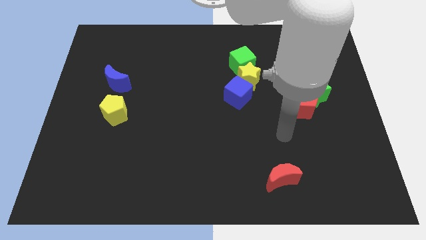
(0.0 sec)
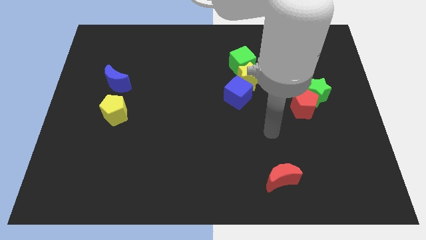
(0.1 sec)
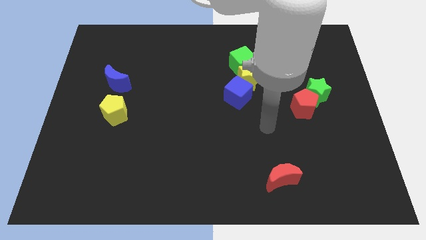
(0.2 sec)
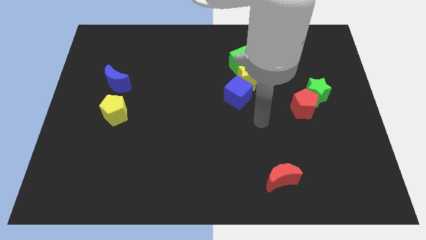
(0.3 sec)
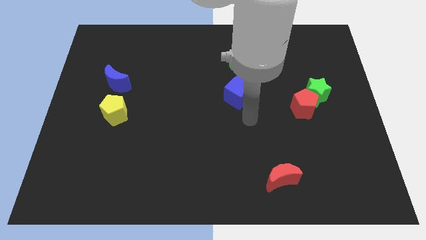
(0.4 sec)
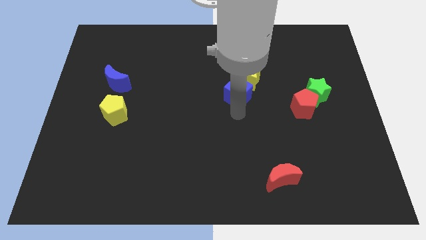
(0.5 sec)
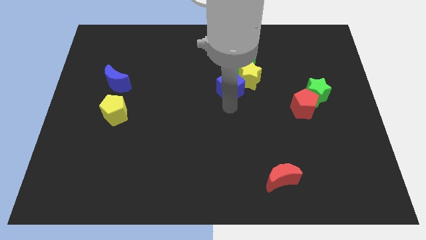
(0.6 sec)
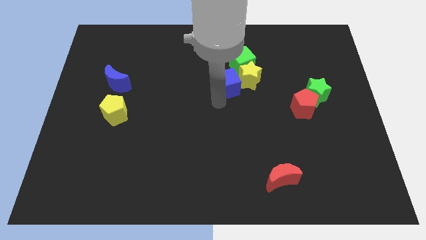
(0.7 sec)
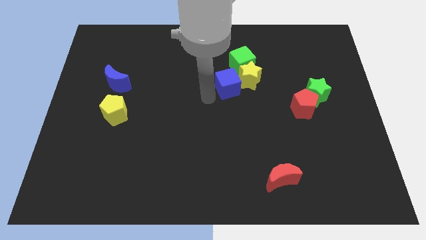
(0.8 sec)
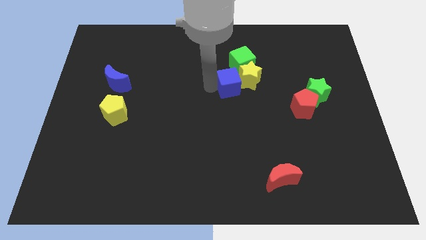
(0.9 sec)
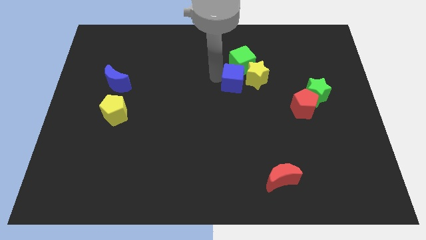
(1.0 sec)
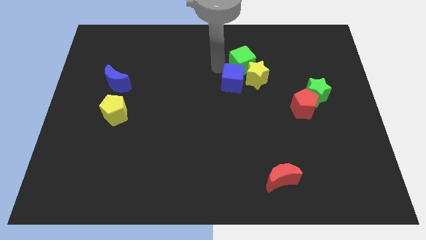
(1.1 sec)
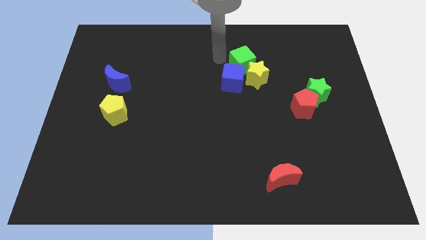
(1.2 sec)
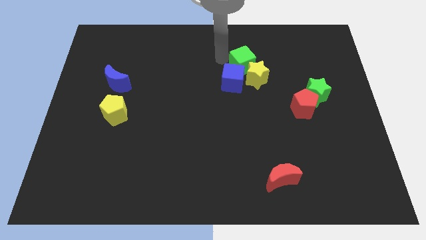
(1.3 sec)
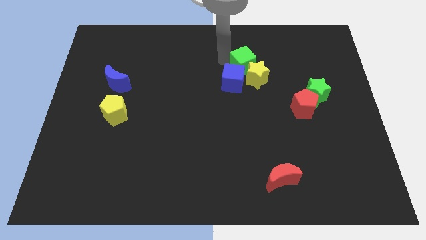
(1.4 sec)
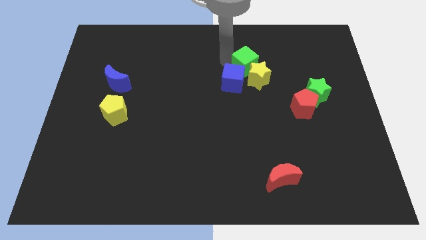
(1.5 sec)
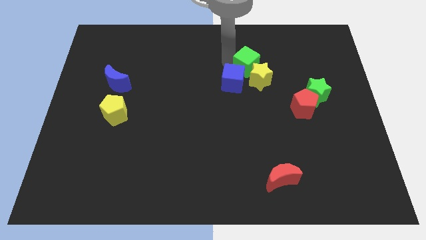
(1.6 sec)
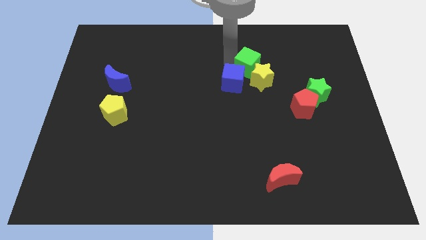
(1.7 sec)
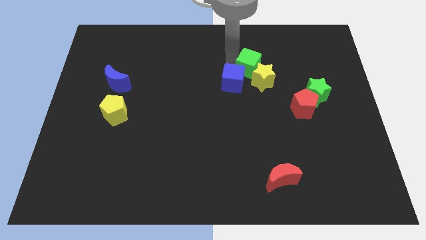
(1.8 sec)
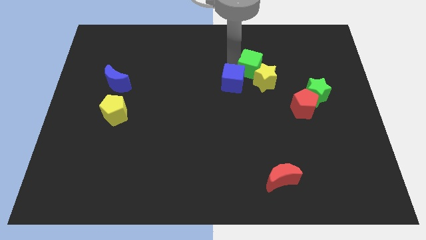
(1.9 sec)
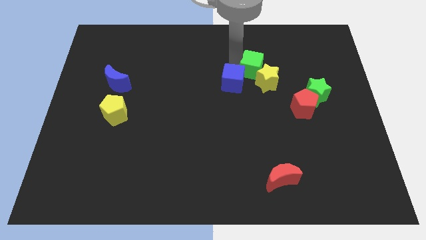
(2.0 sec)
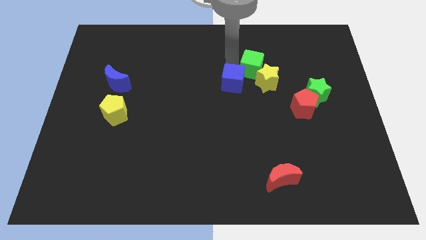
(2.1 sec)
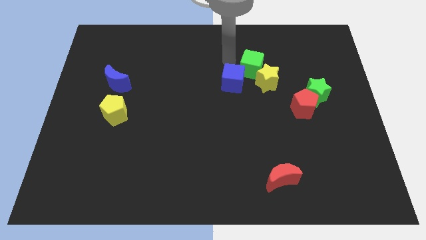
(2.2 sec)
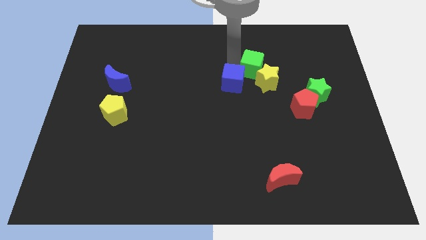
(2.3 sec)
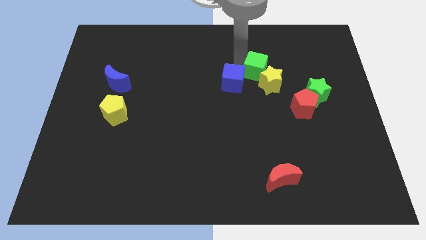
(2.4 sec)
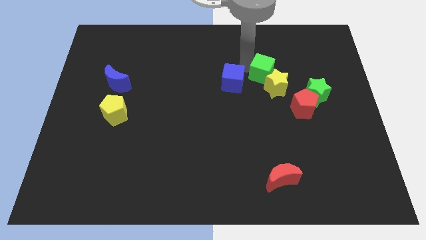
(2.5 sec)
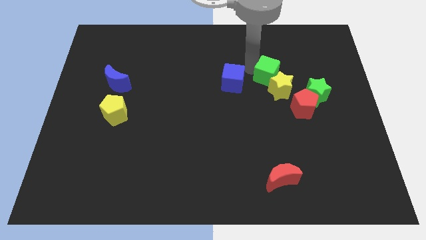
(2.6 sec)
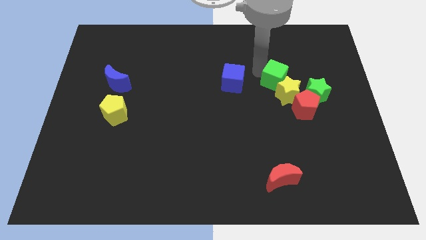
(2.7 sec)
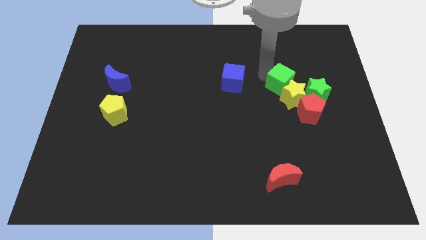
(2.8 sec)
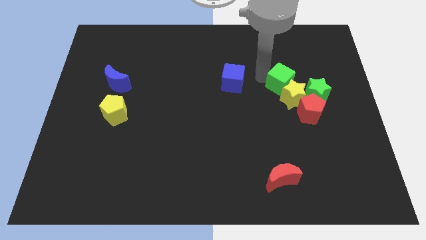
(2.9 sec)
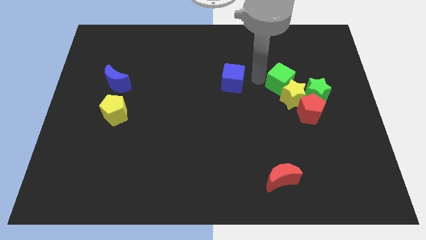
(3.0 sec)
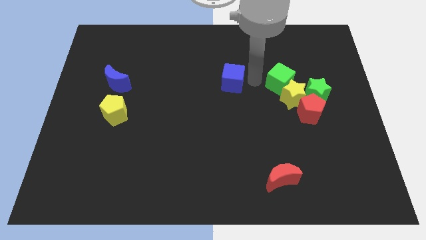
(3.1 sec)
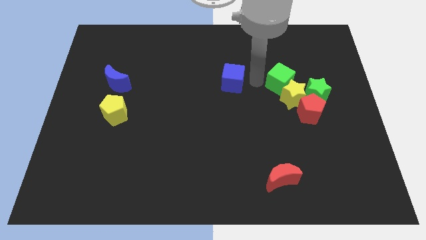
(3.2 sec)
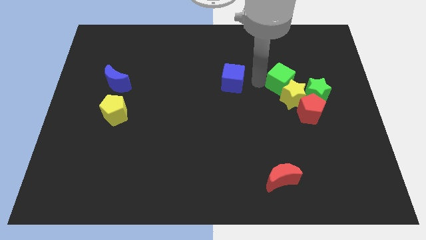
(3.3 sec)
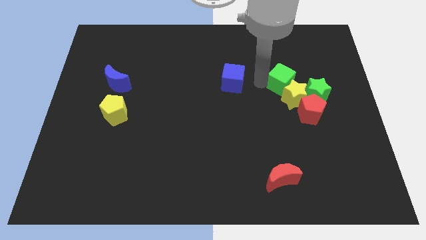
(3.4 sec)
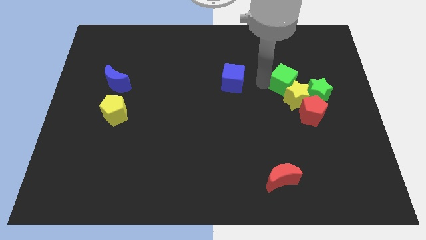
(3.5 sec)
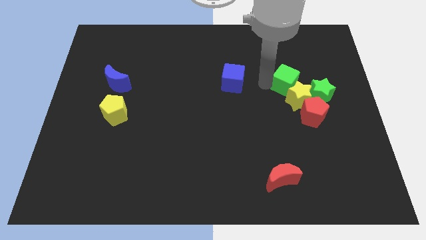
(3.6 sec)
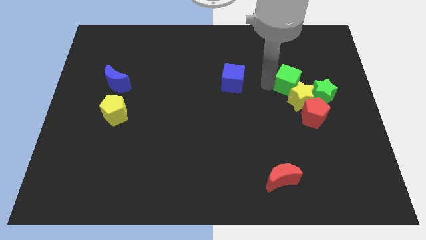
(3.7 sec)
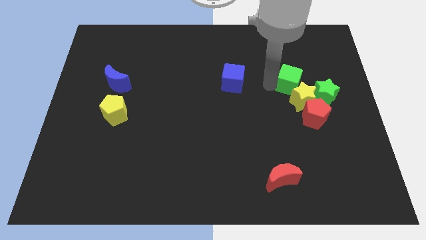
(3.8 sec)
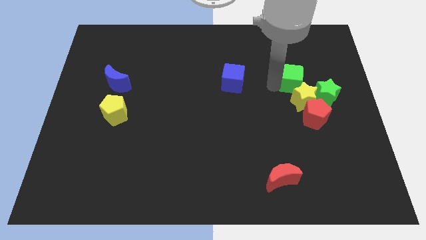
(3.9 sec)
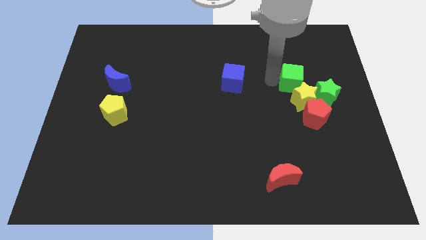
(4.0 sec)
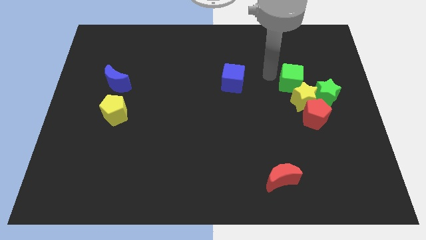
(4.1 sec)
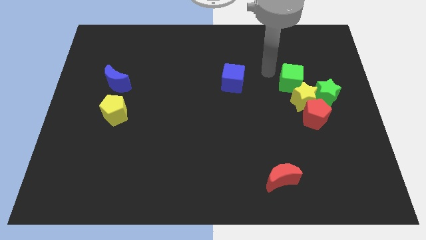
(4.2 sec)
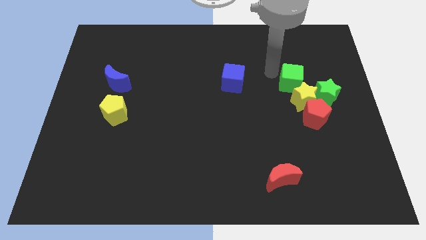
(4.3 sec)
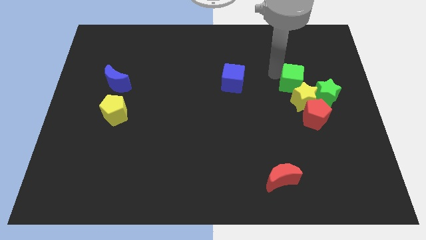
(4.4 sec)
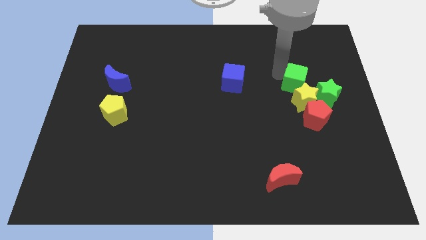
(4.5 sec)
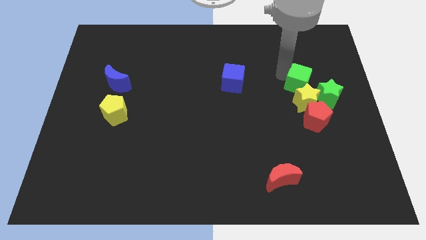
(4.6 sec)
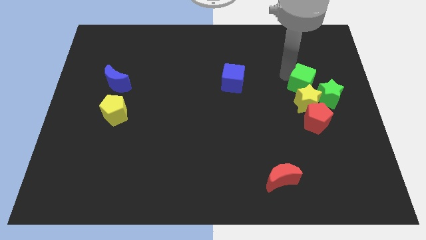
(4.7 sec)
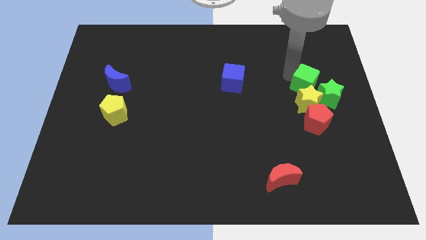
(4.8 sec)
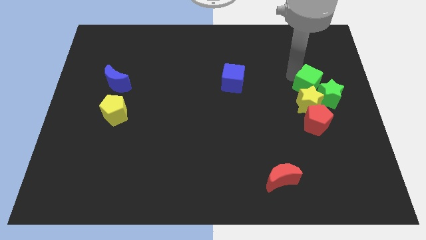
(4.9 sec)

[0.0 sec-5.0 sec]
put the green cube close to the green star

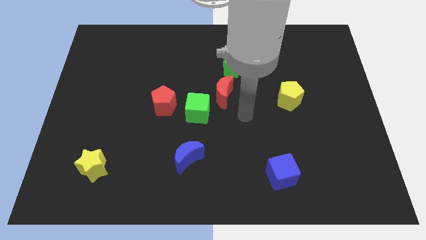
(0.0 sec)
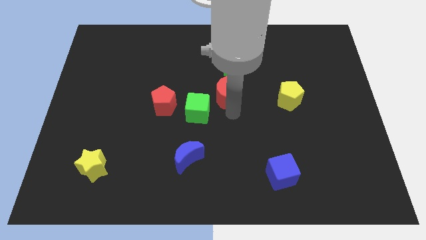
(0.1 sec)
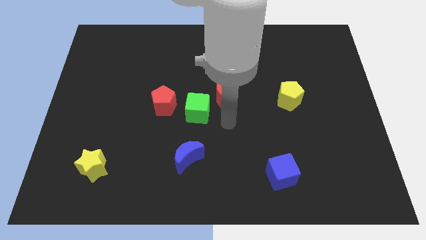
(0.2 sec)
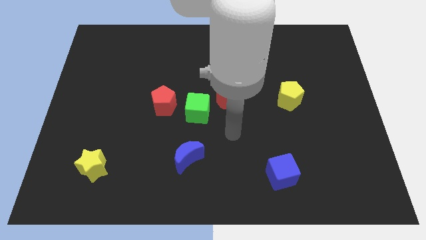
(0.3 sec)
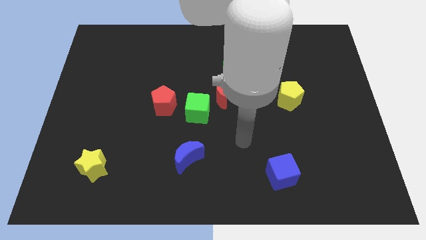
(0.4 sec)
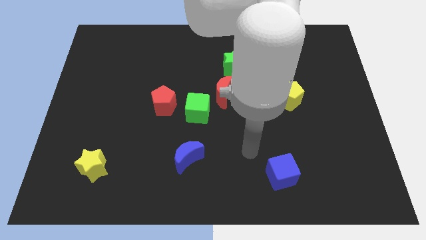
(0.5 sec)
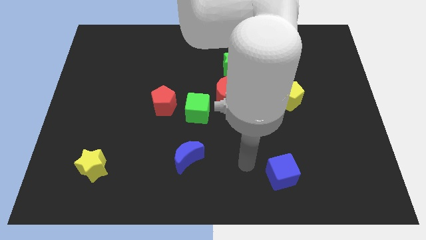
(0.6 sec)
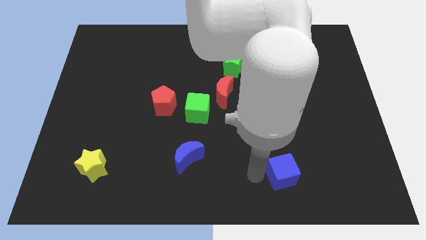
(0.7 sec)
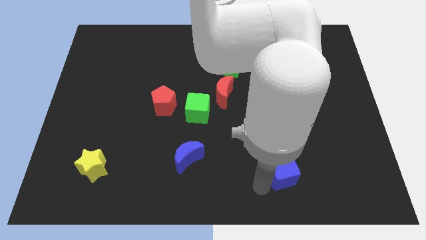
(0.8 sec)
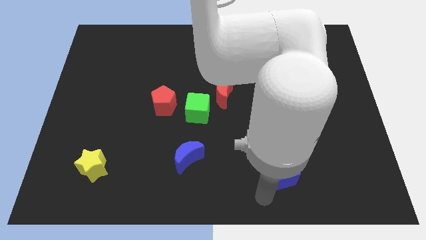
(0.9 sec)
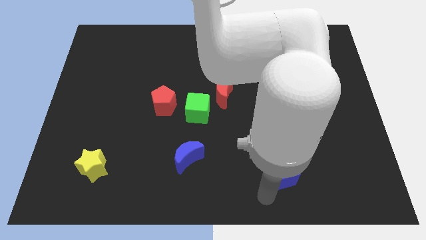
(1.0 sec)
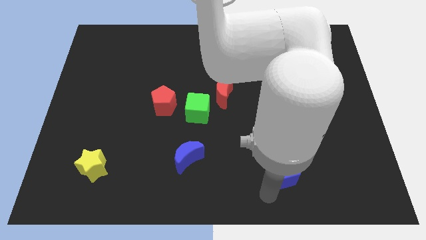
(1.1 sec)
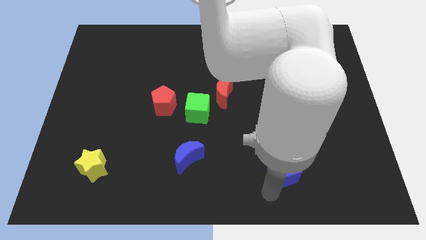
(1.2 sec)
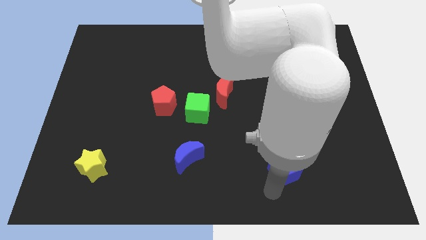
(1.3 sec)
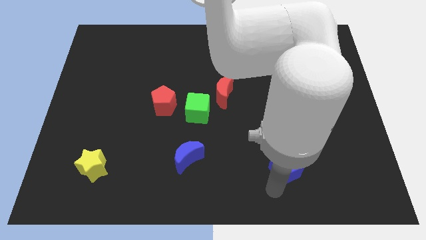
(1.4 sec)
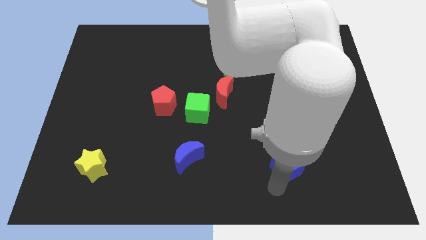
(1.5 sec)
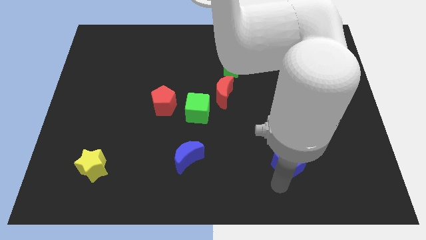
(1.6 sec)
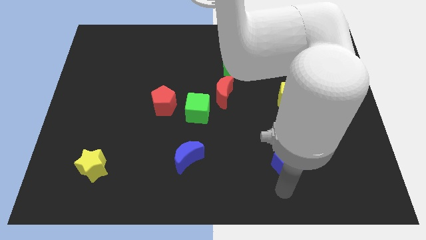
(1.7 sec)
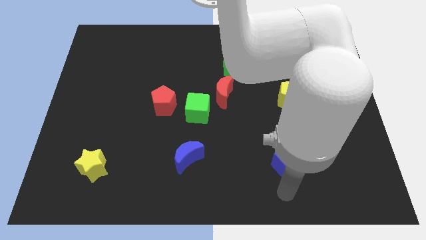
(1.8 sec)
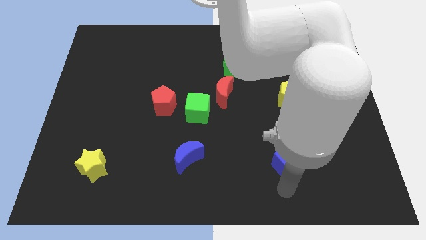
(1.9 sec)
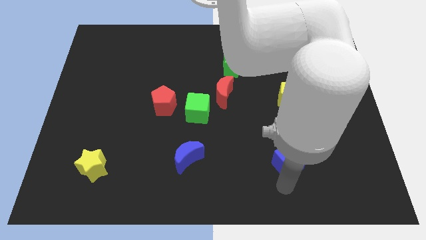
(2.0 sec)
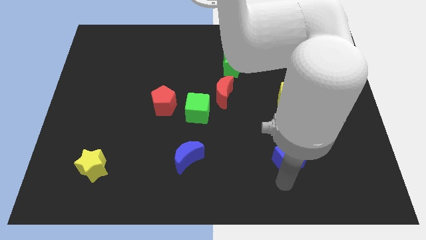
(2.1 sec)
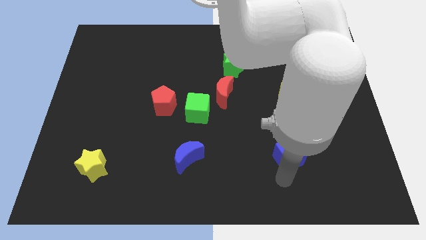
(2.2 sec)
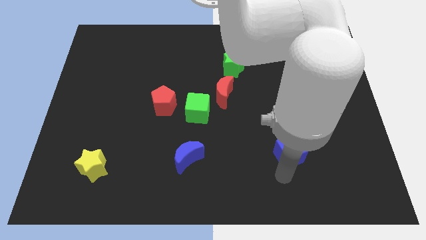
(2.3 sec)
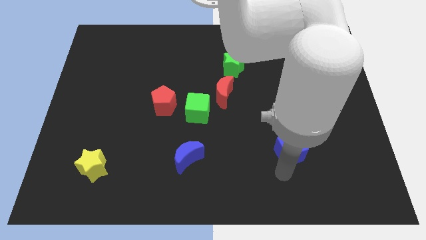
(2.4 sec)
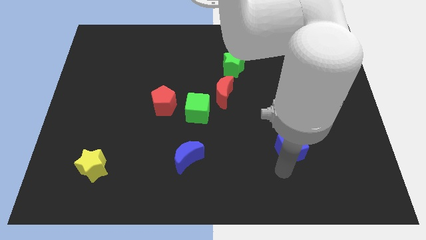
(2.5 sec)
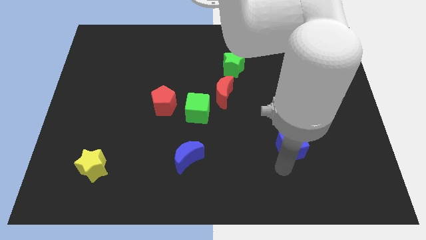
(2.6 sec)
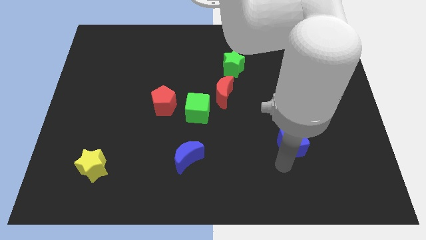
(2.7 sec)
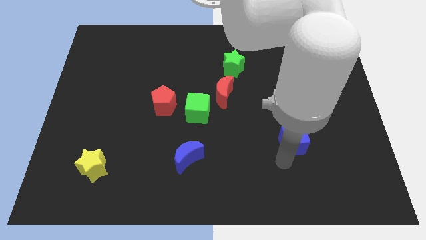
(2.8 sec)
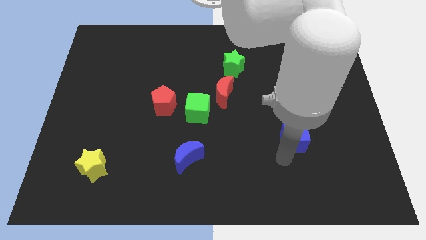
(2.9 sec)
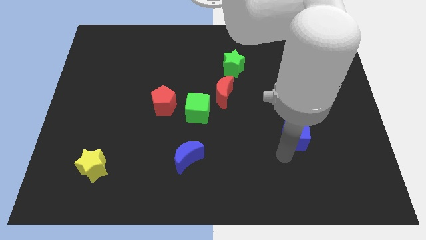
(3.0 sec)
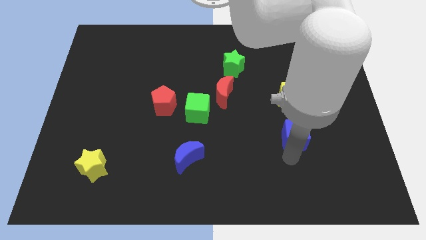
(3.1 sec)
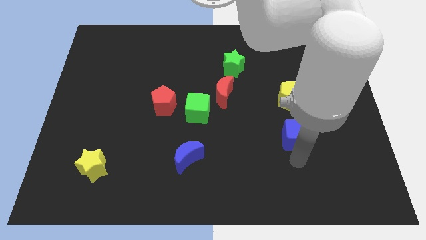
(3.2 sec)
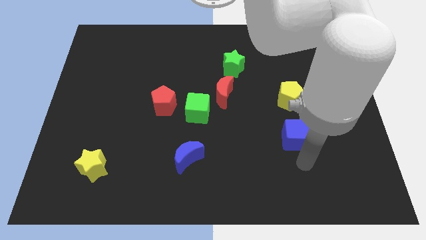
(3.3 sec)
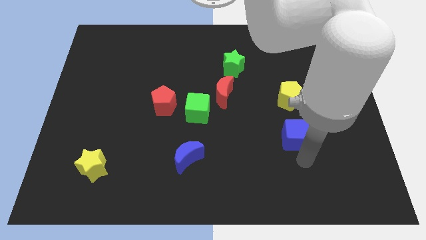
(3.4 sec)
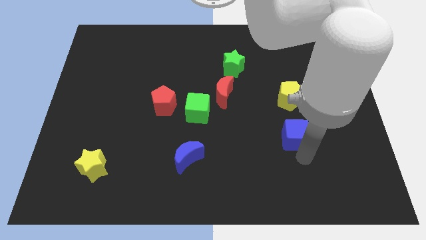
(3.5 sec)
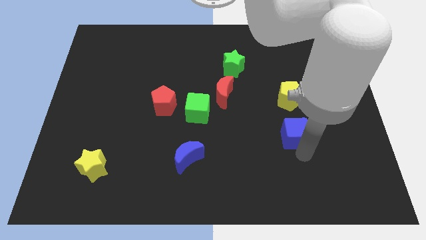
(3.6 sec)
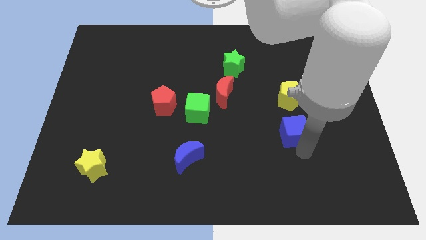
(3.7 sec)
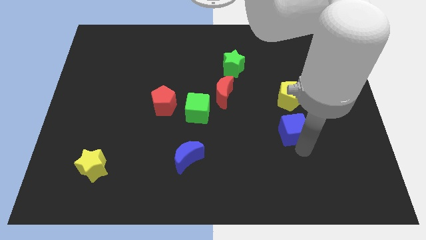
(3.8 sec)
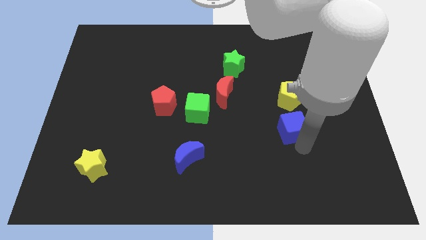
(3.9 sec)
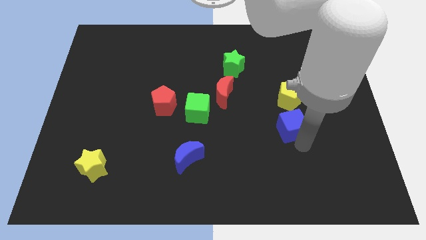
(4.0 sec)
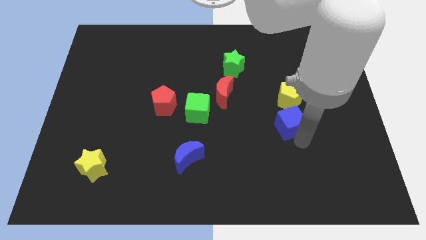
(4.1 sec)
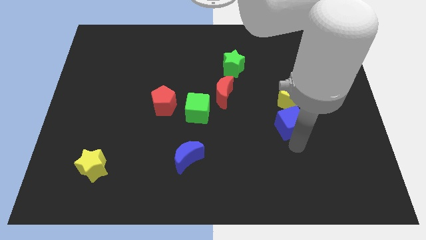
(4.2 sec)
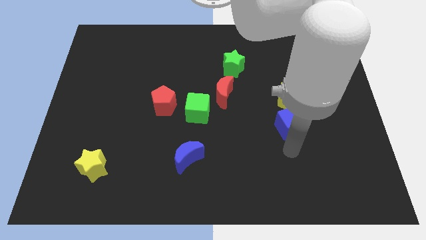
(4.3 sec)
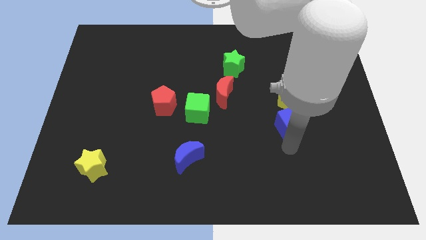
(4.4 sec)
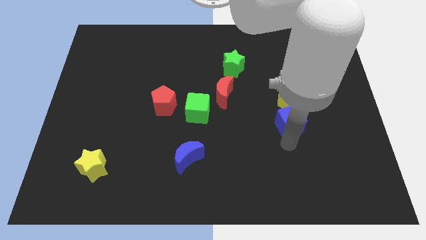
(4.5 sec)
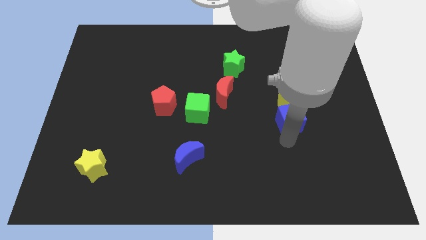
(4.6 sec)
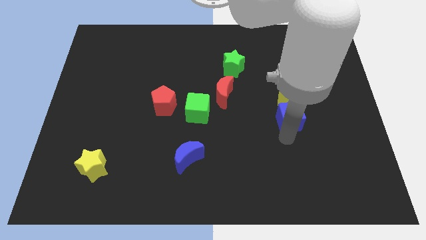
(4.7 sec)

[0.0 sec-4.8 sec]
push the blue cube close to the yellow pentagon
